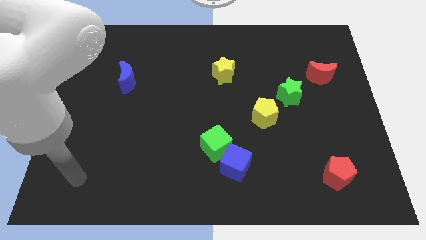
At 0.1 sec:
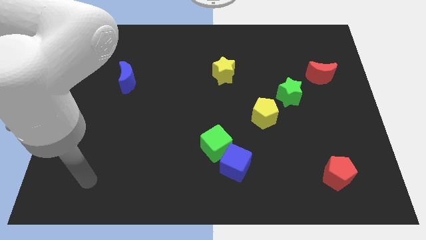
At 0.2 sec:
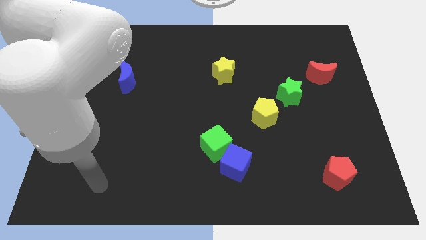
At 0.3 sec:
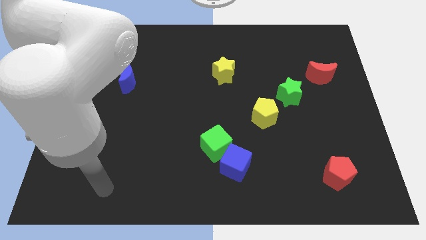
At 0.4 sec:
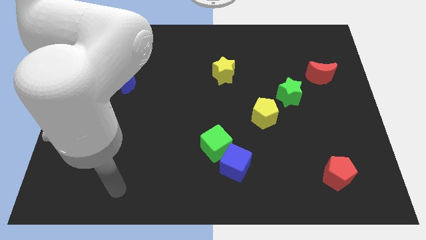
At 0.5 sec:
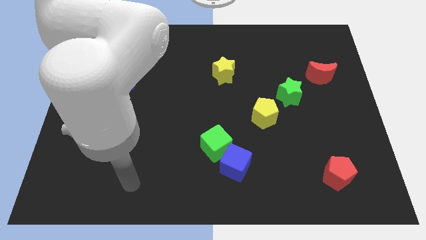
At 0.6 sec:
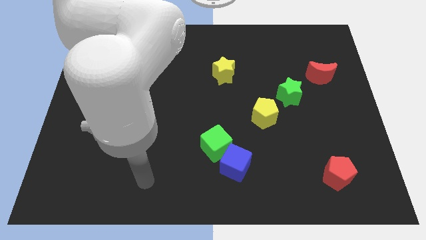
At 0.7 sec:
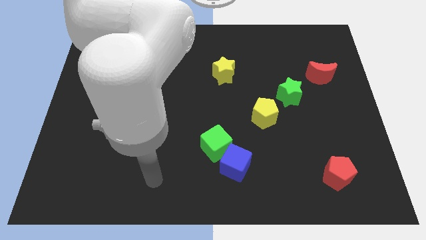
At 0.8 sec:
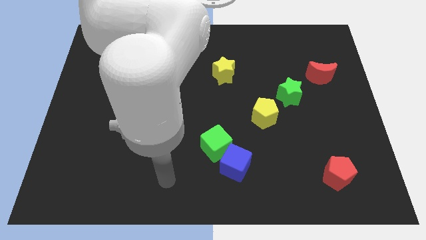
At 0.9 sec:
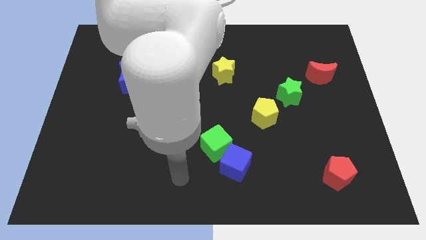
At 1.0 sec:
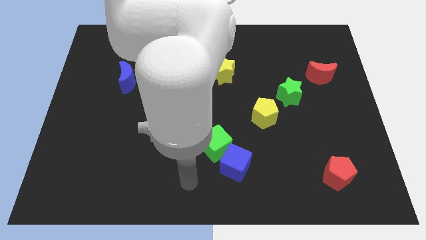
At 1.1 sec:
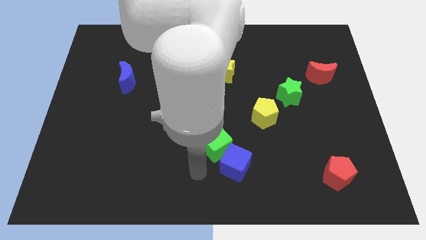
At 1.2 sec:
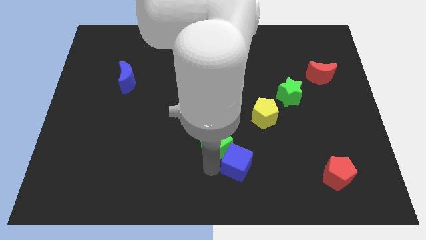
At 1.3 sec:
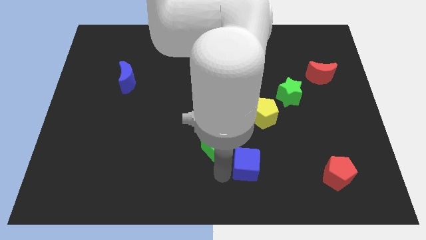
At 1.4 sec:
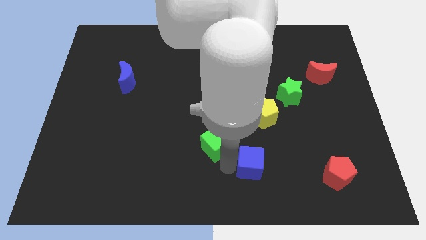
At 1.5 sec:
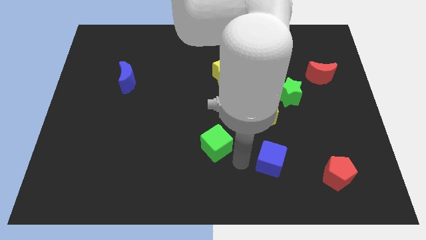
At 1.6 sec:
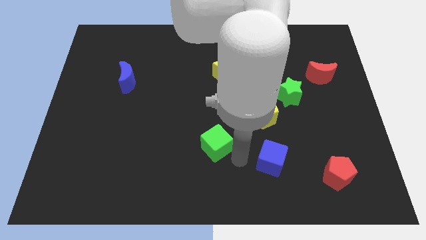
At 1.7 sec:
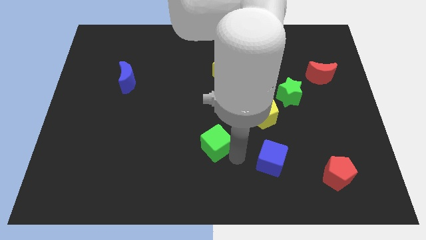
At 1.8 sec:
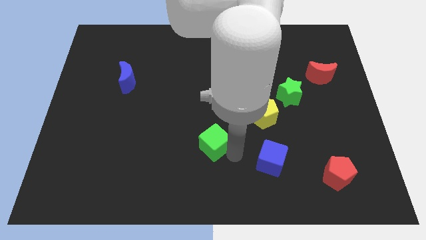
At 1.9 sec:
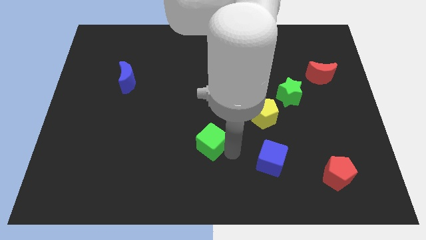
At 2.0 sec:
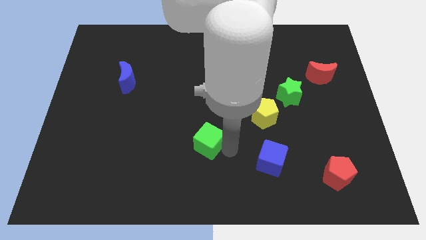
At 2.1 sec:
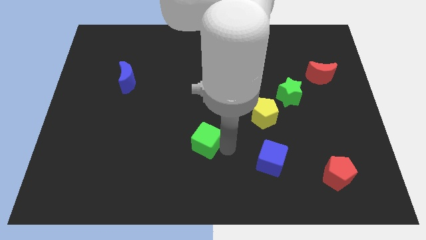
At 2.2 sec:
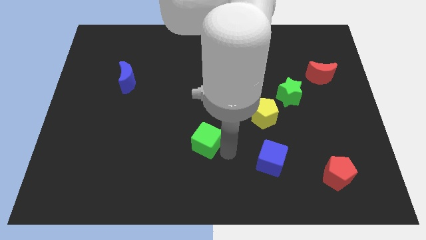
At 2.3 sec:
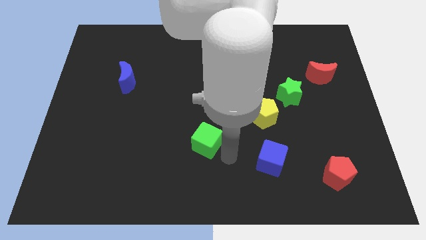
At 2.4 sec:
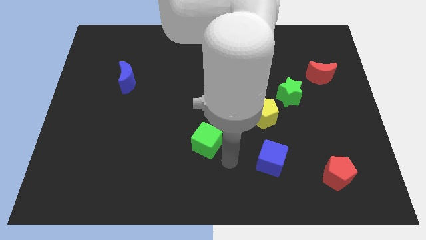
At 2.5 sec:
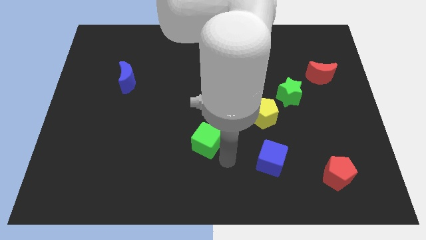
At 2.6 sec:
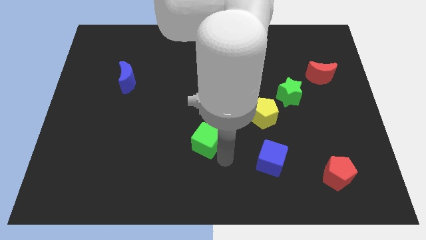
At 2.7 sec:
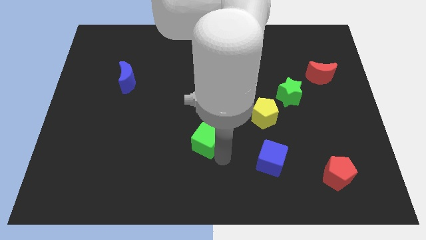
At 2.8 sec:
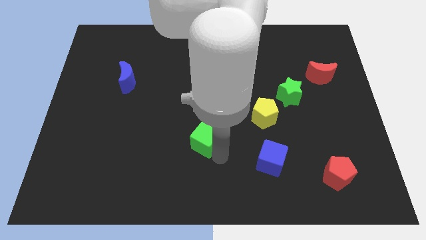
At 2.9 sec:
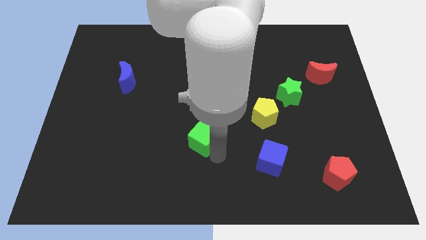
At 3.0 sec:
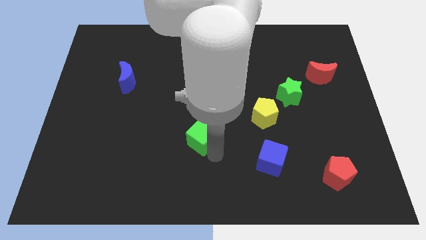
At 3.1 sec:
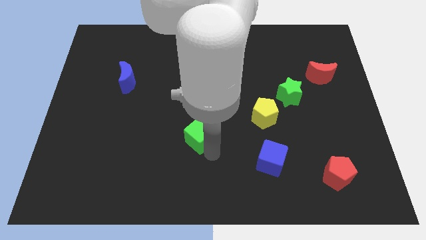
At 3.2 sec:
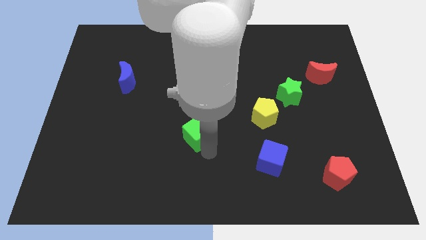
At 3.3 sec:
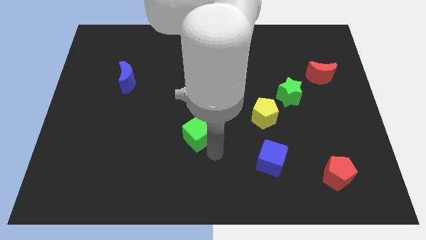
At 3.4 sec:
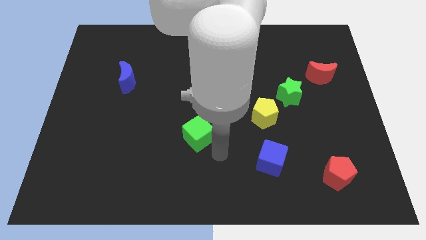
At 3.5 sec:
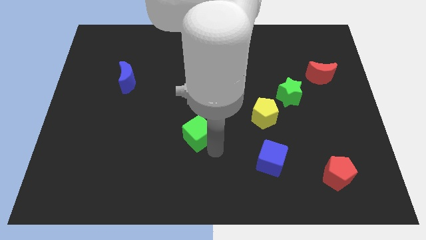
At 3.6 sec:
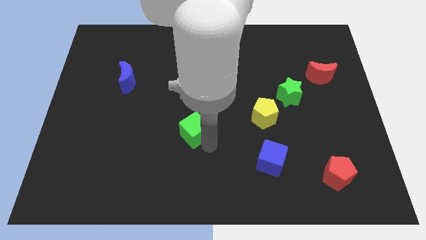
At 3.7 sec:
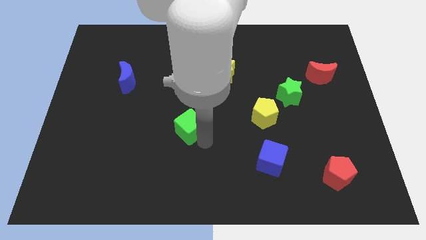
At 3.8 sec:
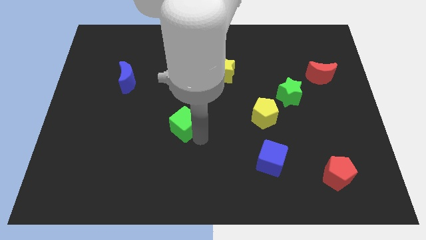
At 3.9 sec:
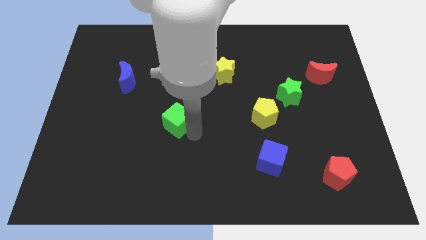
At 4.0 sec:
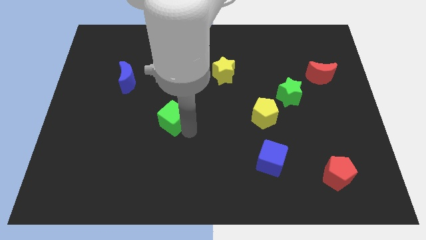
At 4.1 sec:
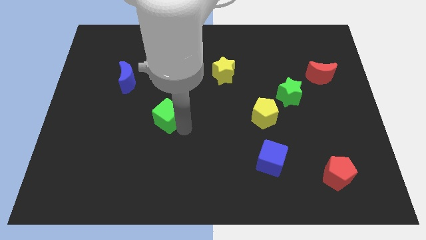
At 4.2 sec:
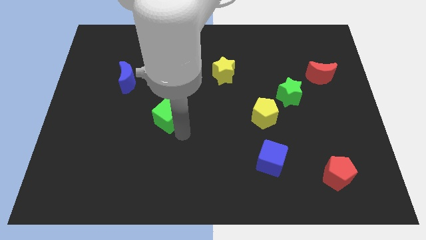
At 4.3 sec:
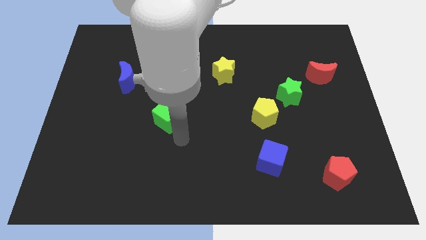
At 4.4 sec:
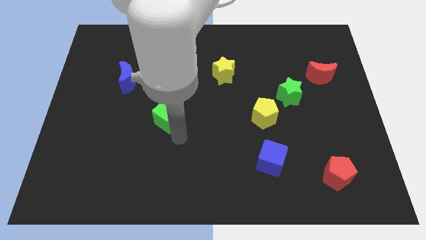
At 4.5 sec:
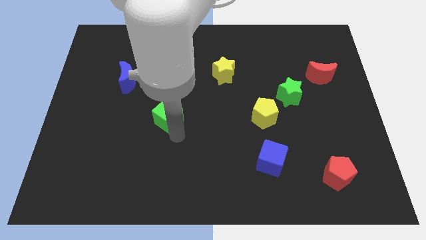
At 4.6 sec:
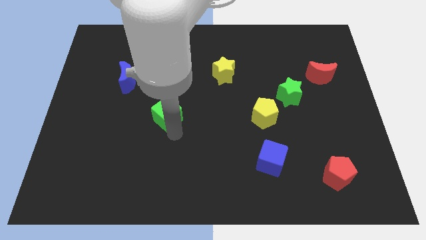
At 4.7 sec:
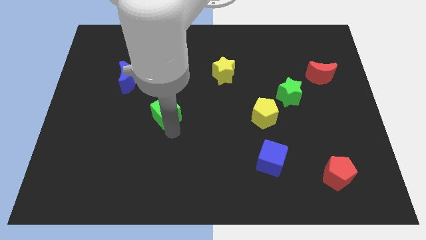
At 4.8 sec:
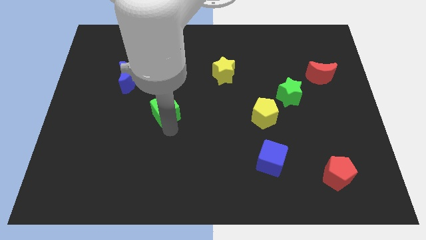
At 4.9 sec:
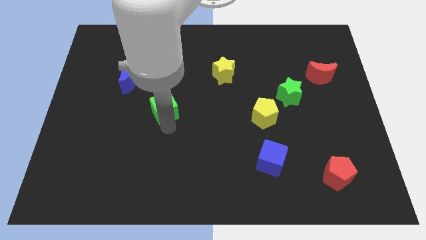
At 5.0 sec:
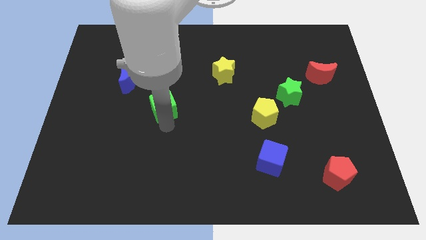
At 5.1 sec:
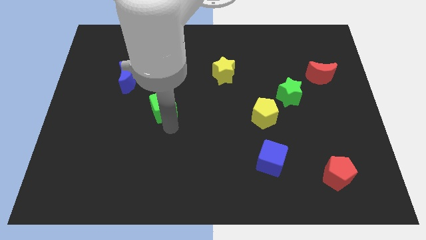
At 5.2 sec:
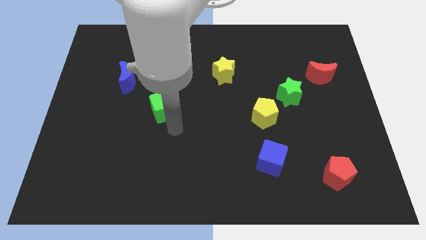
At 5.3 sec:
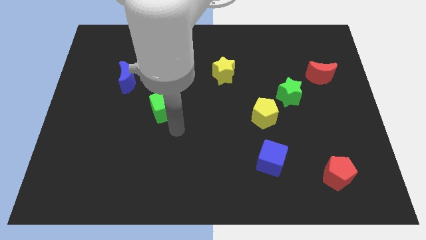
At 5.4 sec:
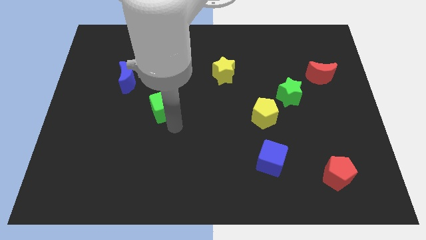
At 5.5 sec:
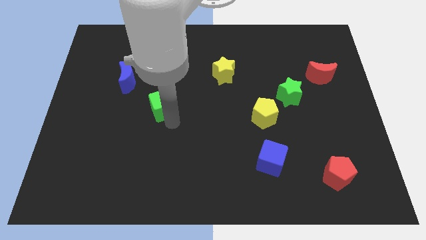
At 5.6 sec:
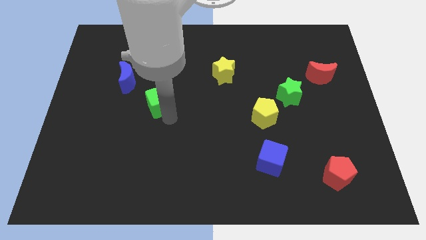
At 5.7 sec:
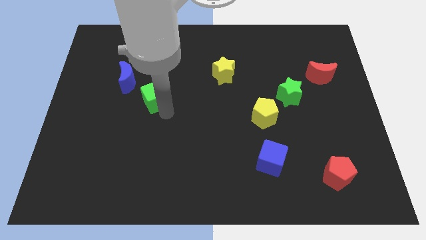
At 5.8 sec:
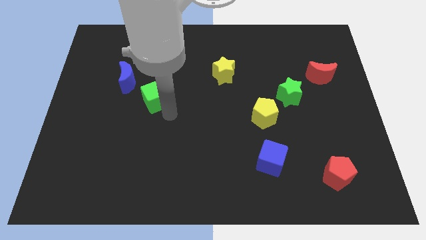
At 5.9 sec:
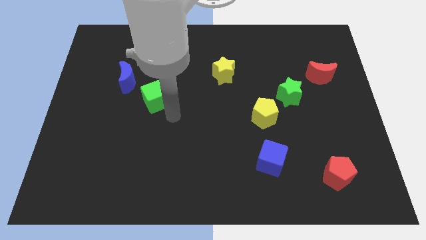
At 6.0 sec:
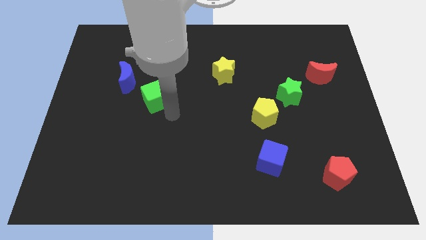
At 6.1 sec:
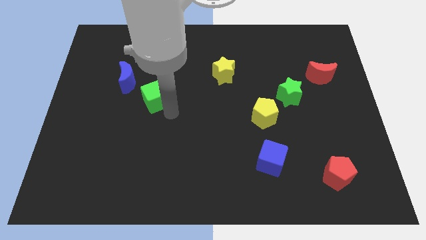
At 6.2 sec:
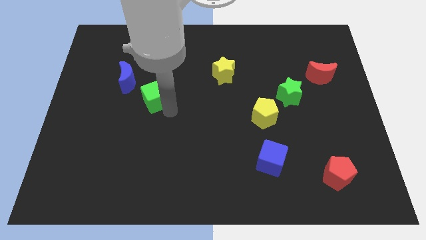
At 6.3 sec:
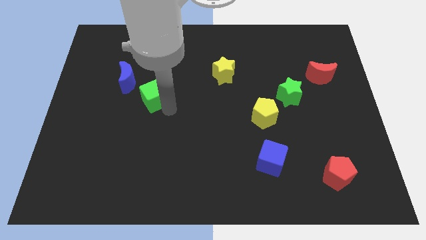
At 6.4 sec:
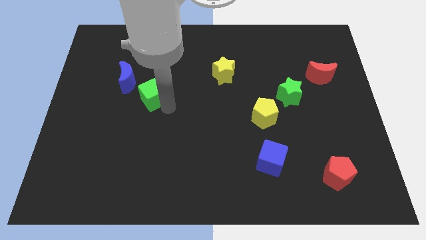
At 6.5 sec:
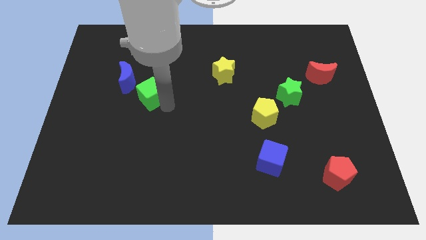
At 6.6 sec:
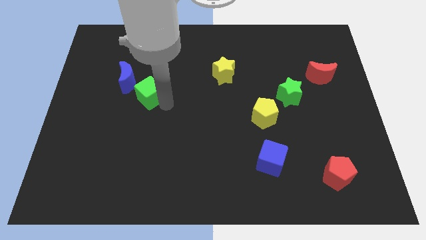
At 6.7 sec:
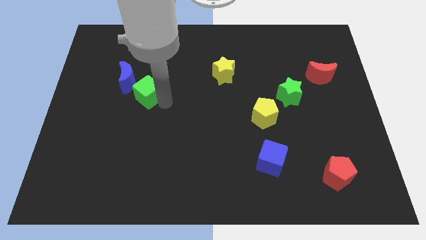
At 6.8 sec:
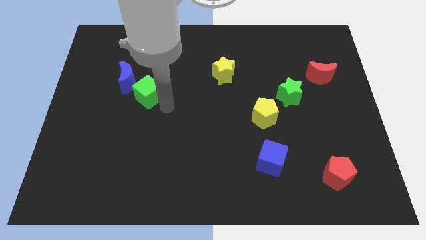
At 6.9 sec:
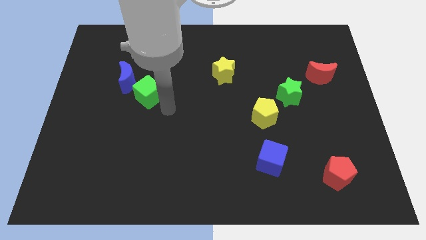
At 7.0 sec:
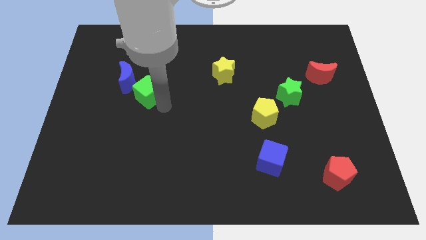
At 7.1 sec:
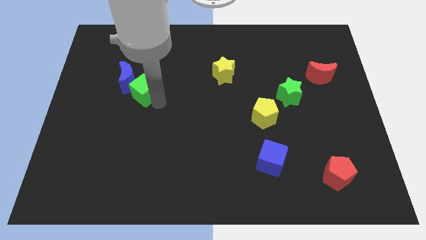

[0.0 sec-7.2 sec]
slide the green cube towards the blue moon
